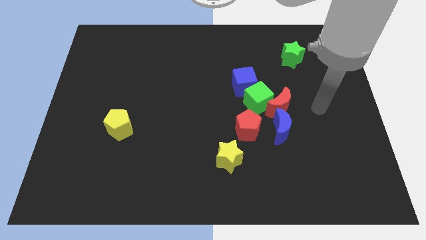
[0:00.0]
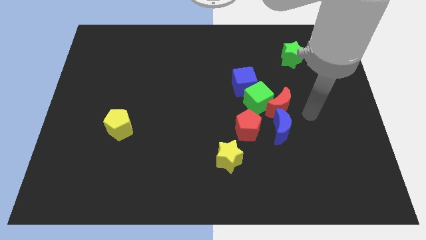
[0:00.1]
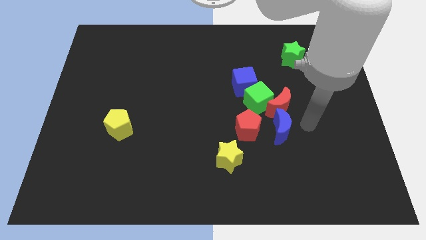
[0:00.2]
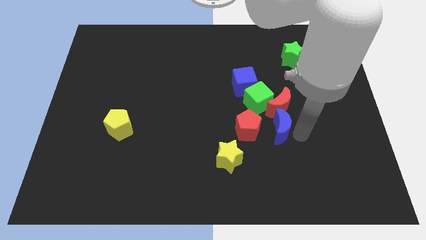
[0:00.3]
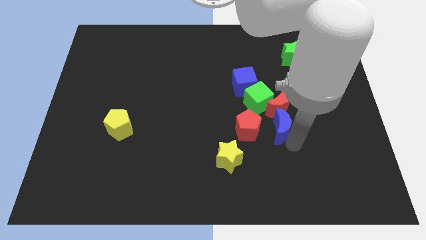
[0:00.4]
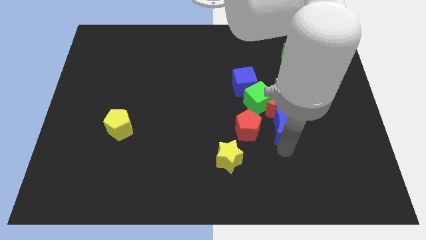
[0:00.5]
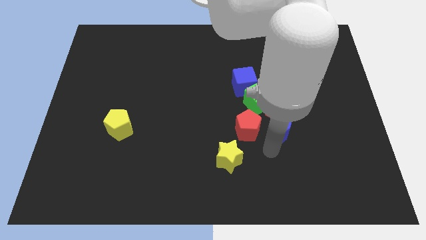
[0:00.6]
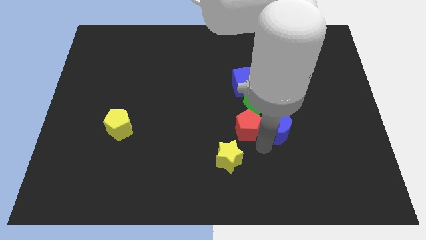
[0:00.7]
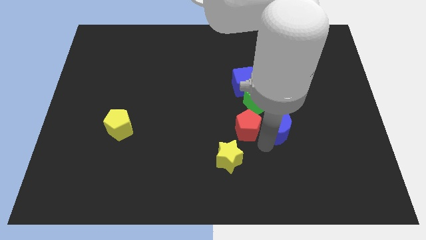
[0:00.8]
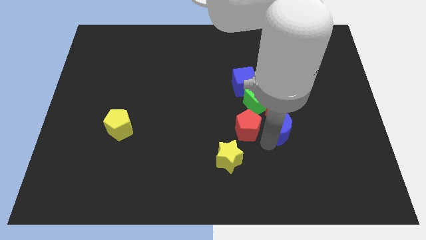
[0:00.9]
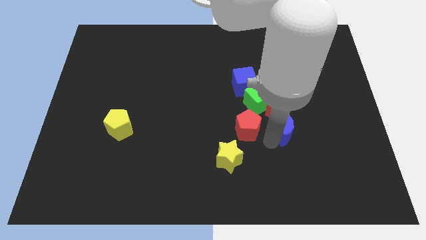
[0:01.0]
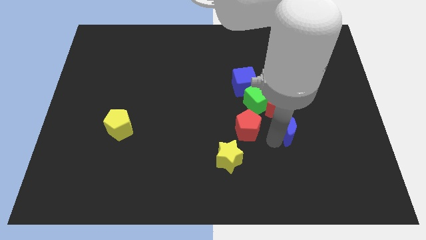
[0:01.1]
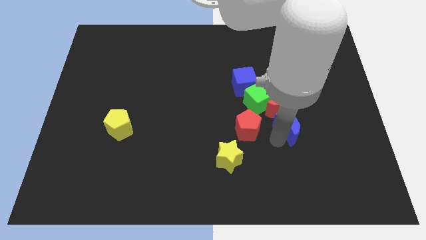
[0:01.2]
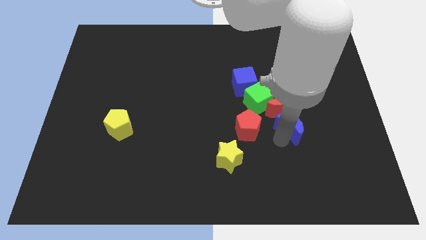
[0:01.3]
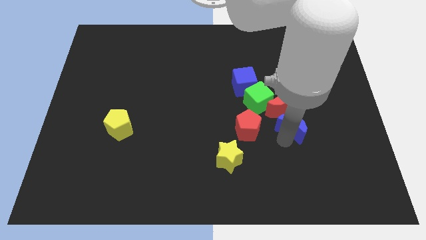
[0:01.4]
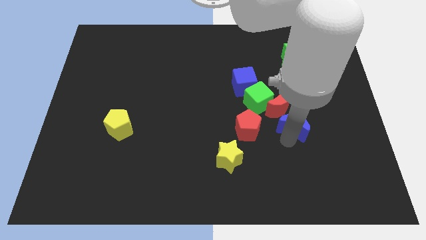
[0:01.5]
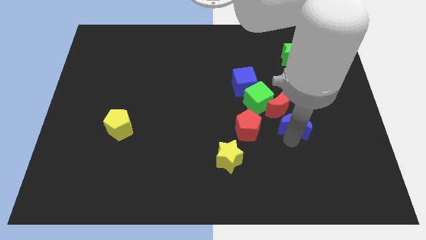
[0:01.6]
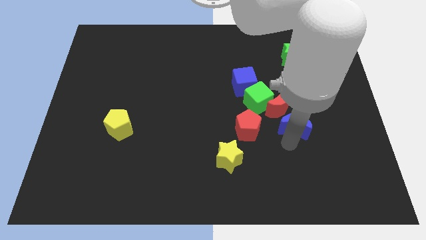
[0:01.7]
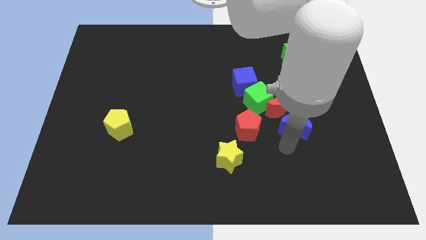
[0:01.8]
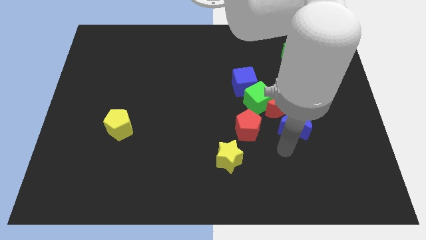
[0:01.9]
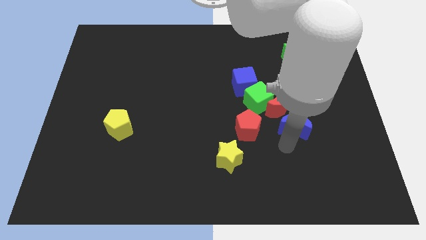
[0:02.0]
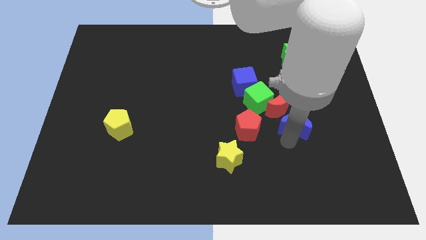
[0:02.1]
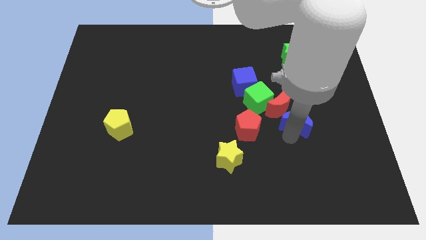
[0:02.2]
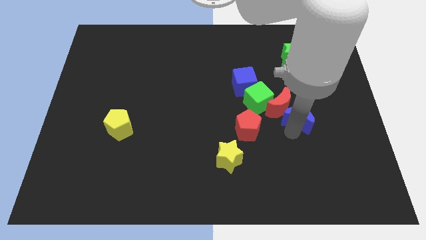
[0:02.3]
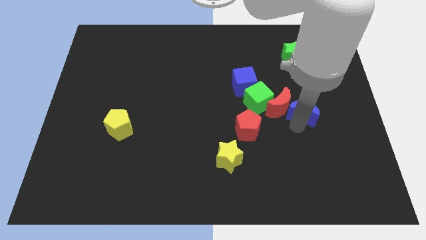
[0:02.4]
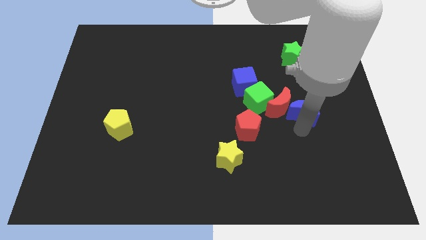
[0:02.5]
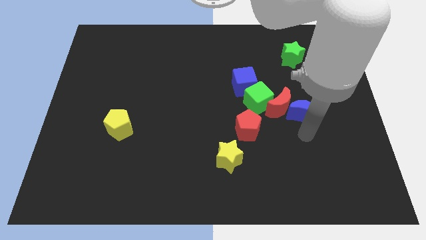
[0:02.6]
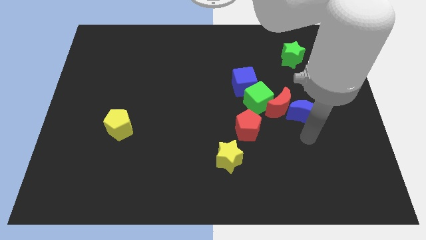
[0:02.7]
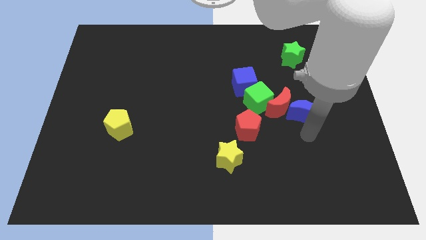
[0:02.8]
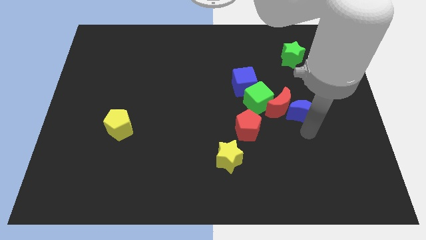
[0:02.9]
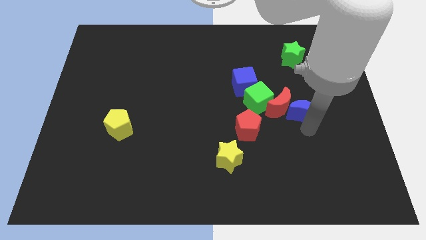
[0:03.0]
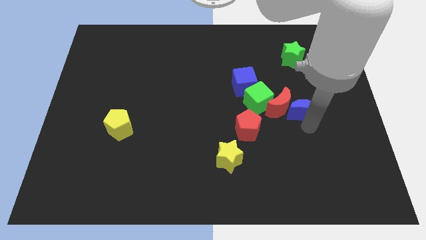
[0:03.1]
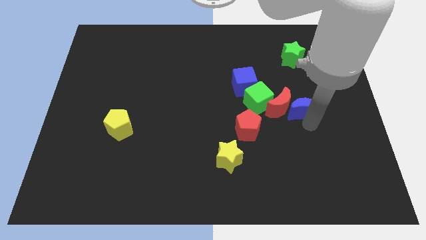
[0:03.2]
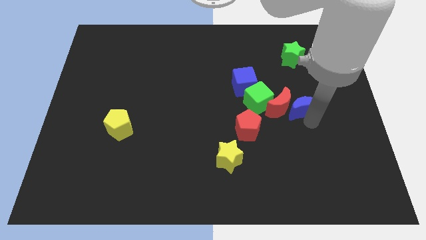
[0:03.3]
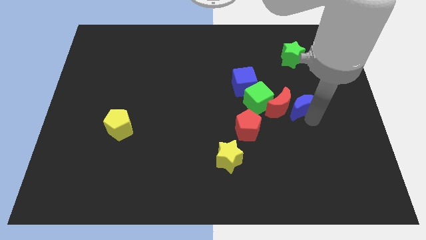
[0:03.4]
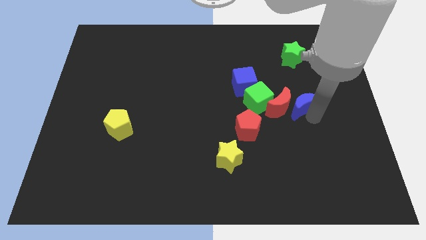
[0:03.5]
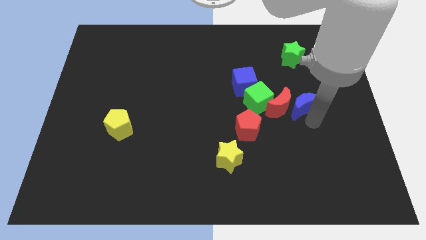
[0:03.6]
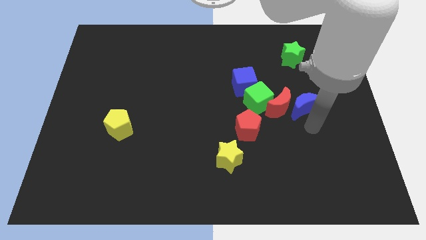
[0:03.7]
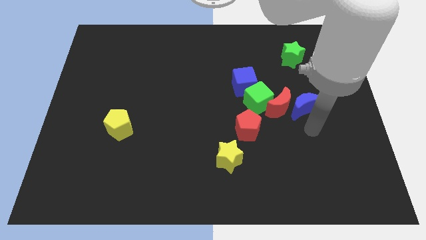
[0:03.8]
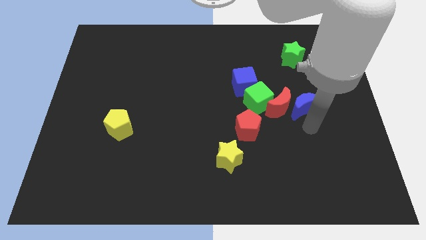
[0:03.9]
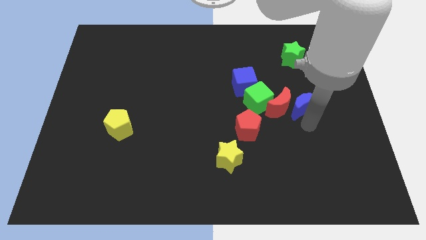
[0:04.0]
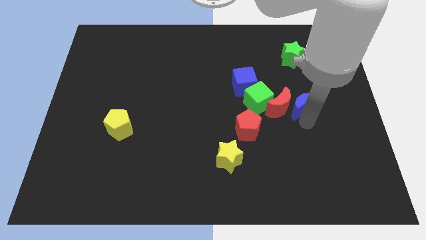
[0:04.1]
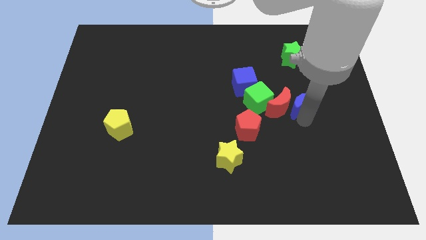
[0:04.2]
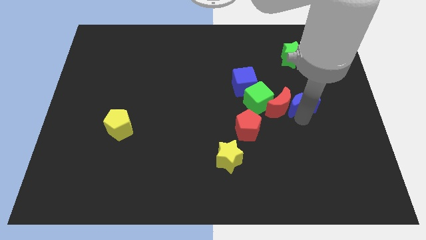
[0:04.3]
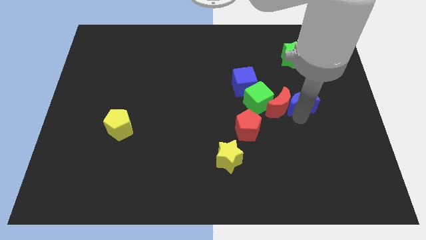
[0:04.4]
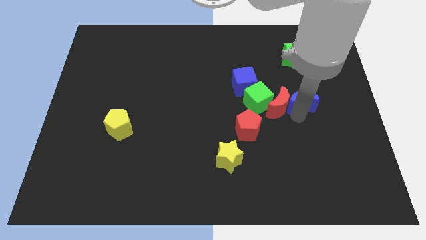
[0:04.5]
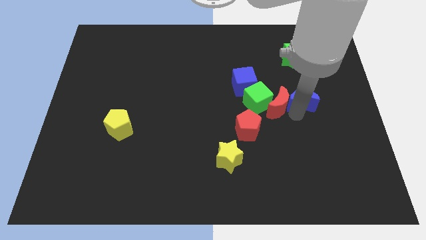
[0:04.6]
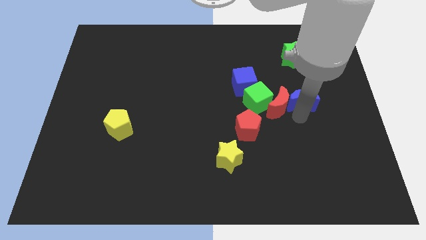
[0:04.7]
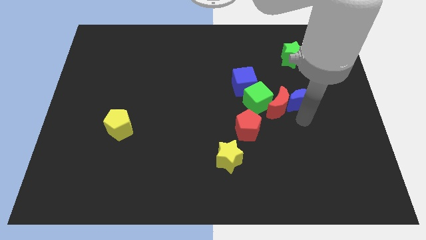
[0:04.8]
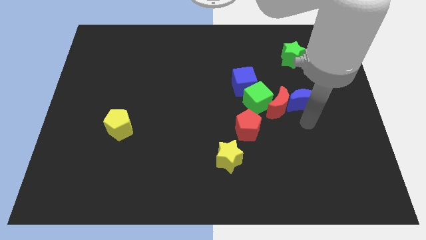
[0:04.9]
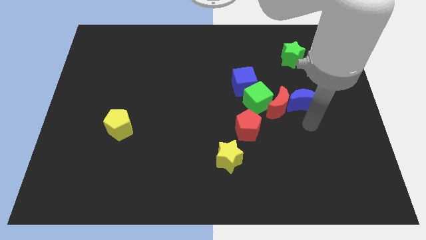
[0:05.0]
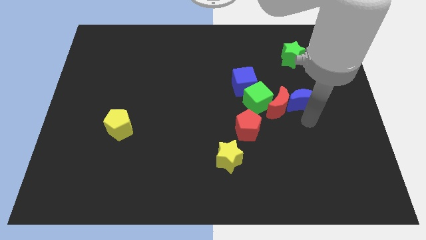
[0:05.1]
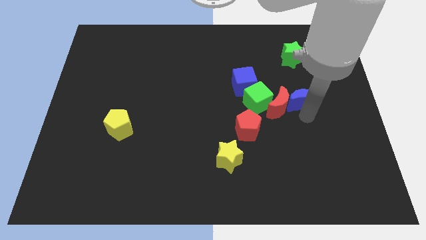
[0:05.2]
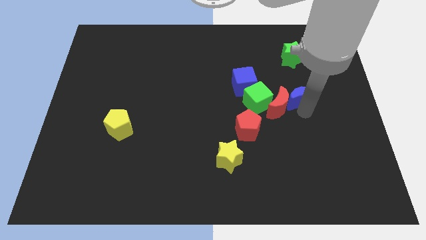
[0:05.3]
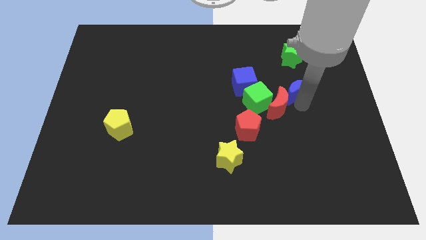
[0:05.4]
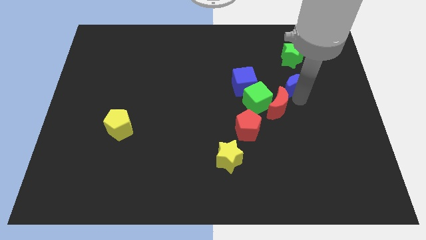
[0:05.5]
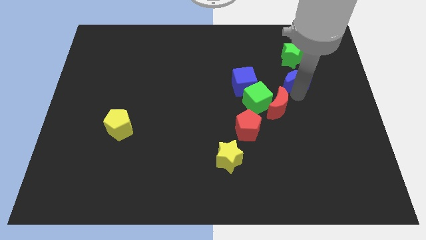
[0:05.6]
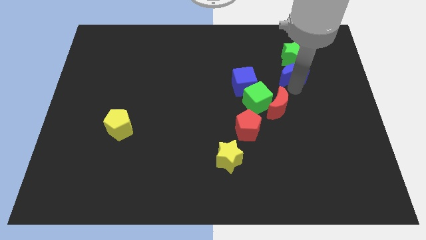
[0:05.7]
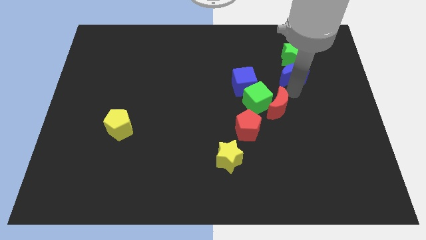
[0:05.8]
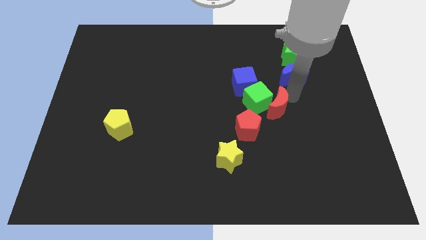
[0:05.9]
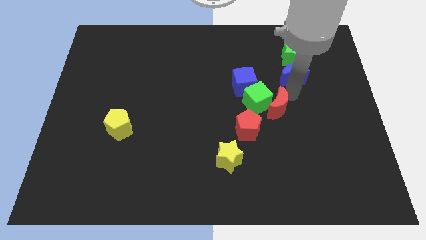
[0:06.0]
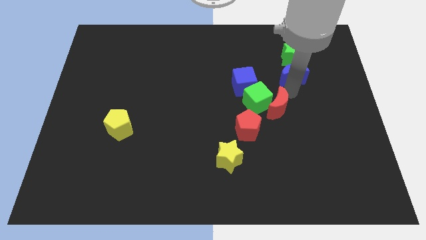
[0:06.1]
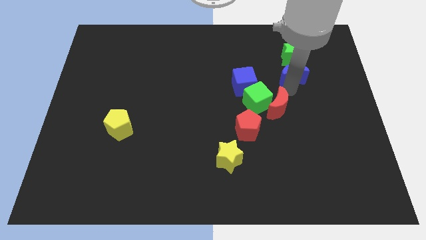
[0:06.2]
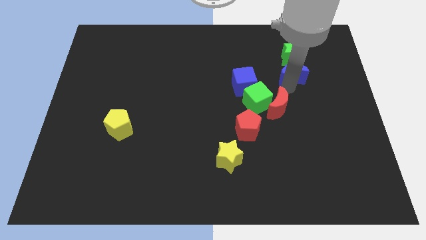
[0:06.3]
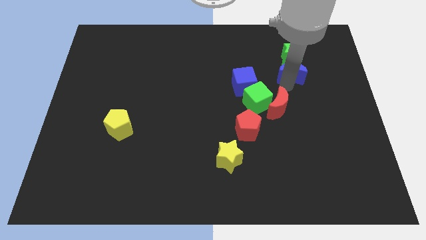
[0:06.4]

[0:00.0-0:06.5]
slide the blue moon towards the green star

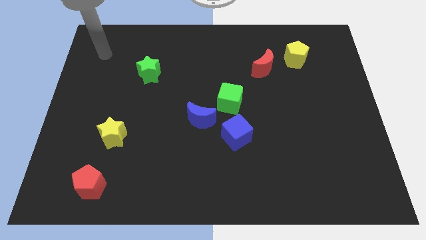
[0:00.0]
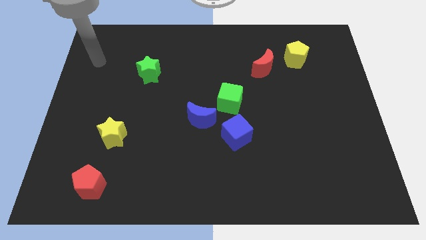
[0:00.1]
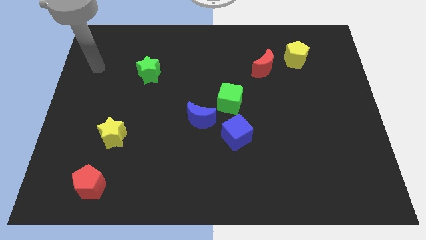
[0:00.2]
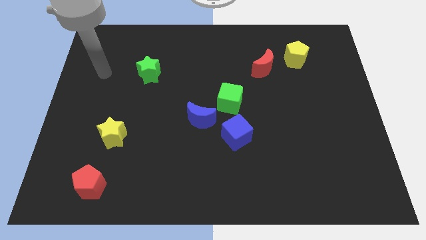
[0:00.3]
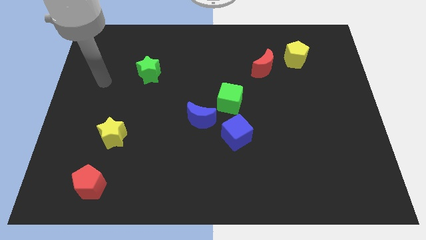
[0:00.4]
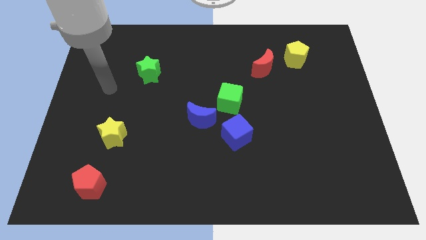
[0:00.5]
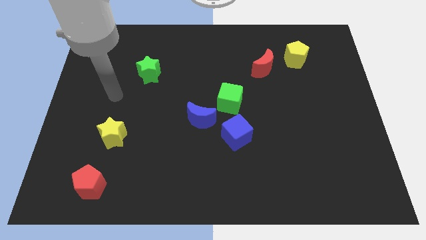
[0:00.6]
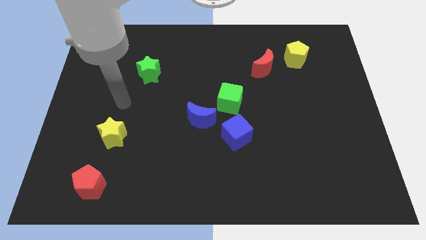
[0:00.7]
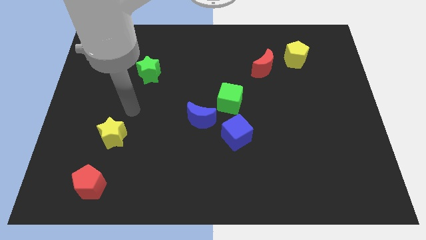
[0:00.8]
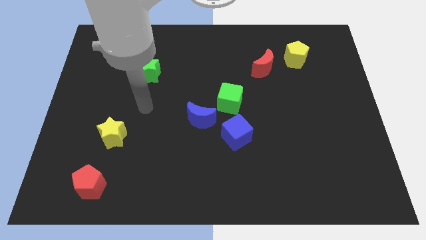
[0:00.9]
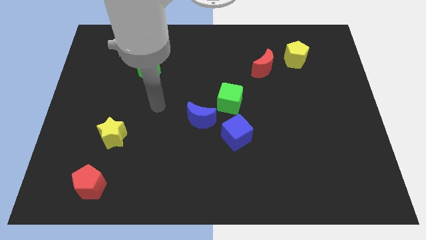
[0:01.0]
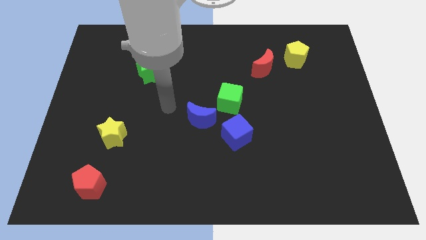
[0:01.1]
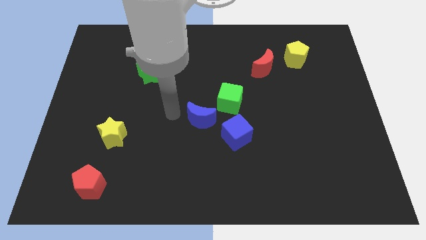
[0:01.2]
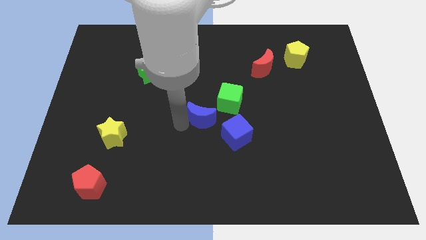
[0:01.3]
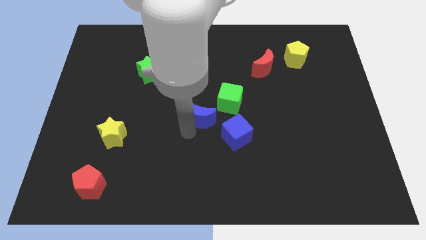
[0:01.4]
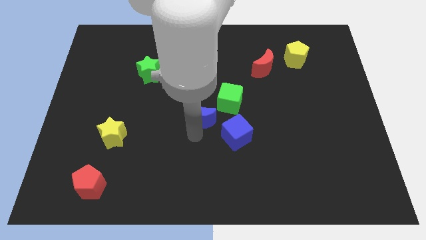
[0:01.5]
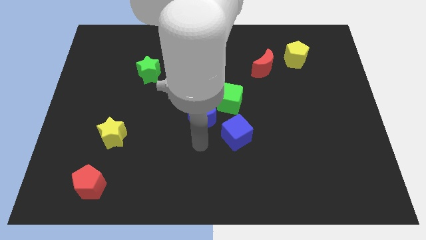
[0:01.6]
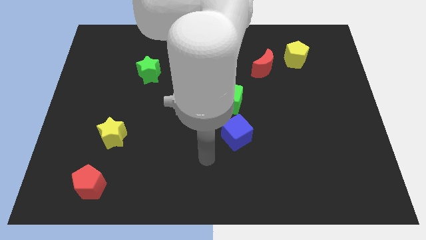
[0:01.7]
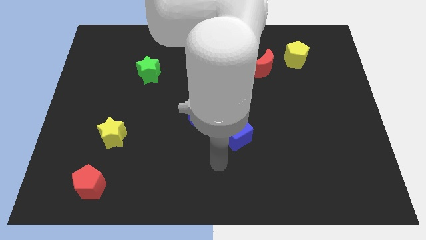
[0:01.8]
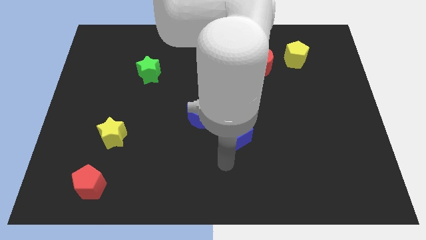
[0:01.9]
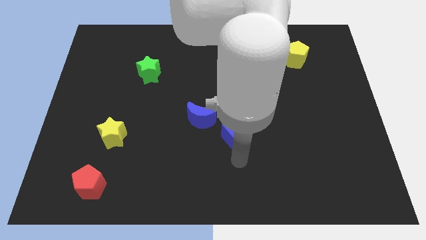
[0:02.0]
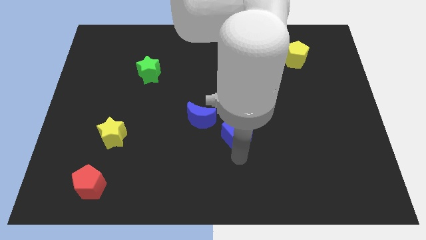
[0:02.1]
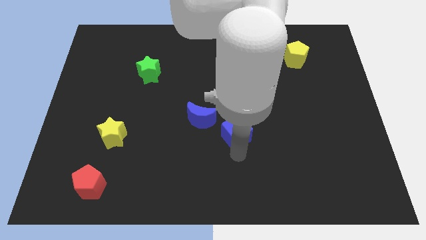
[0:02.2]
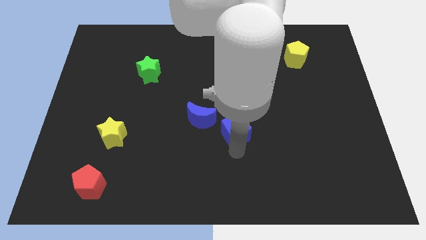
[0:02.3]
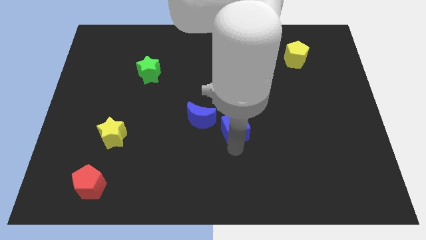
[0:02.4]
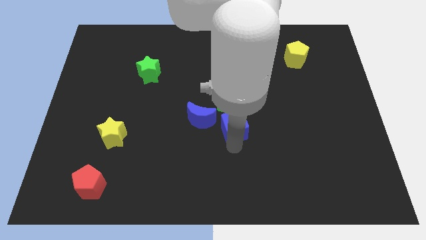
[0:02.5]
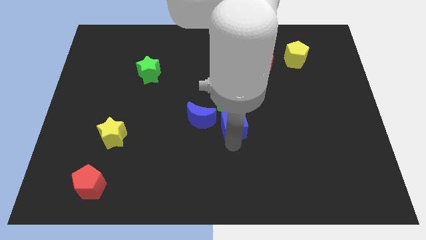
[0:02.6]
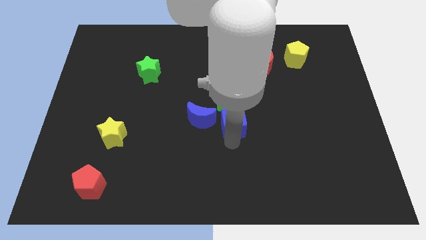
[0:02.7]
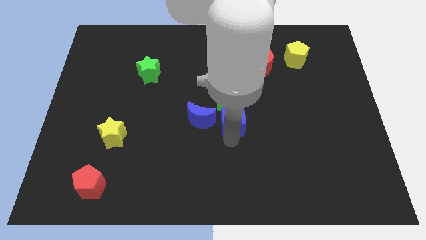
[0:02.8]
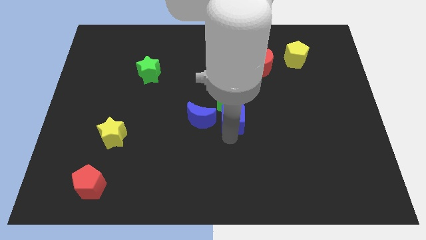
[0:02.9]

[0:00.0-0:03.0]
slide the blue cube close to the green cube
